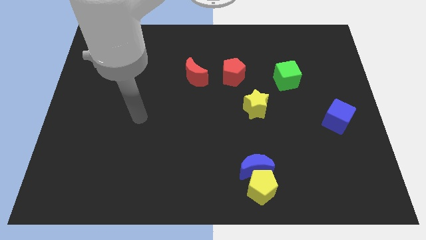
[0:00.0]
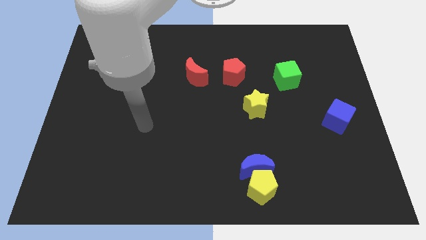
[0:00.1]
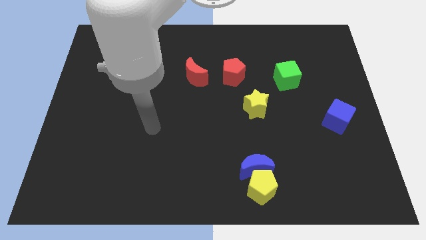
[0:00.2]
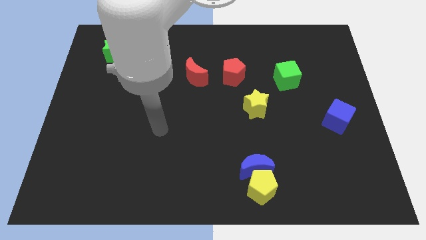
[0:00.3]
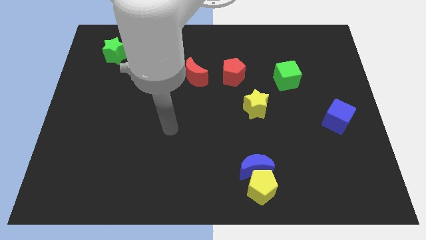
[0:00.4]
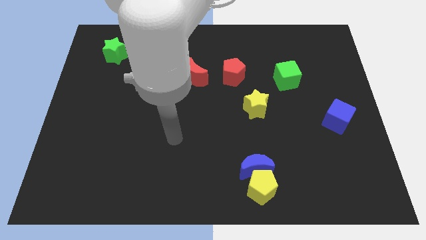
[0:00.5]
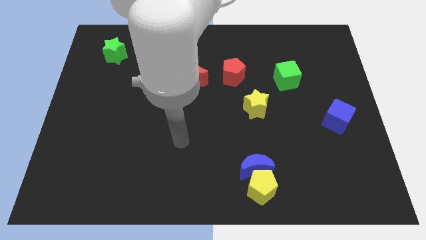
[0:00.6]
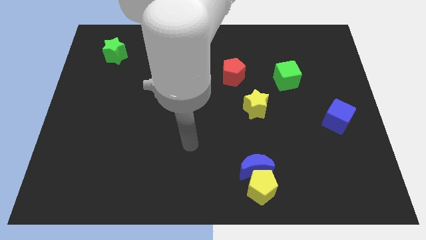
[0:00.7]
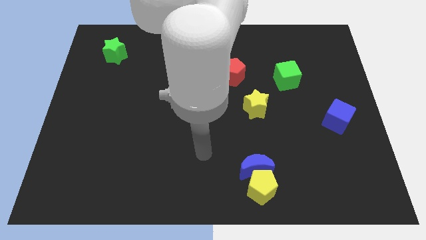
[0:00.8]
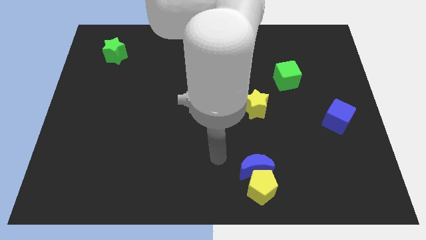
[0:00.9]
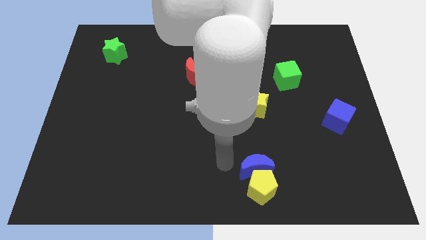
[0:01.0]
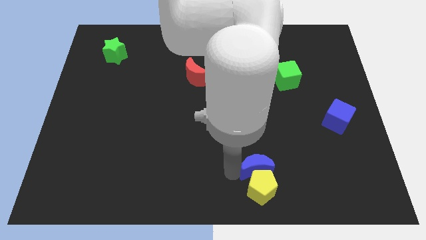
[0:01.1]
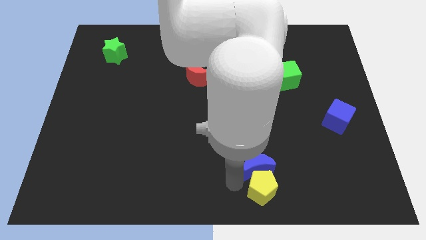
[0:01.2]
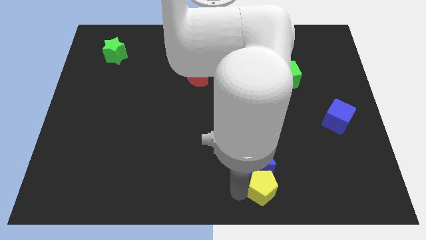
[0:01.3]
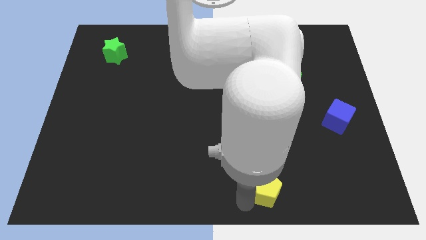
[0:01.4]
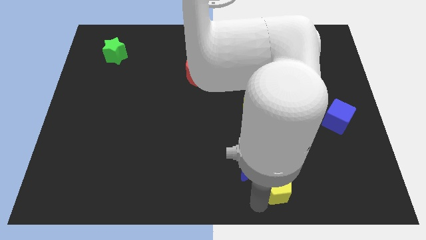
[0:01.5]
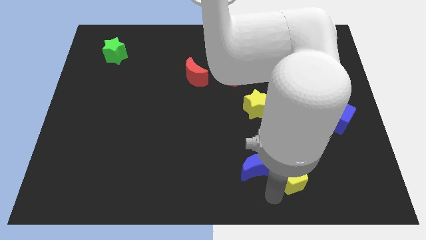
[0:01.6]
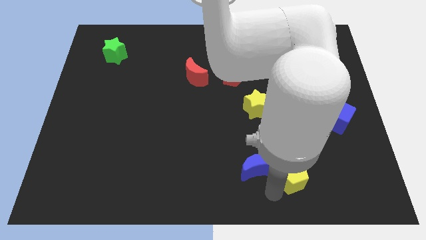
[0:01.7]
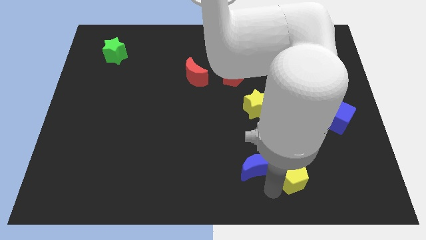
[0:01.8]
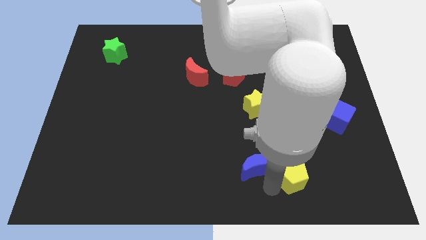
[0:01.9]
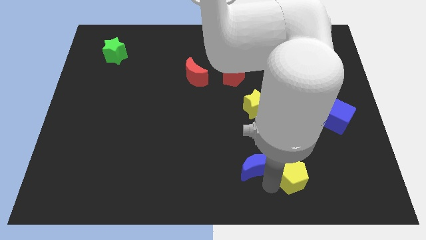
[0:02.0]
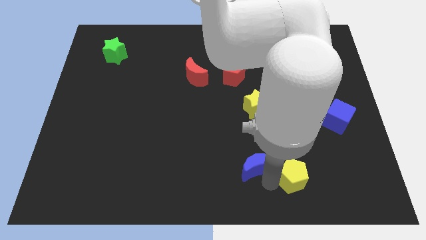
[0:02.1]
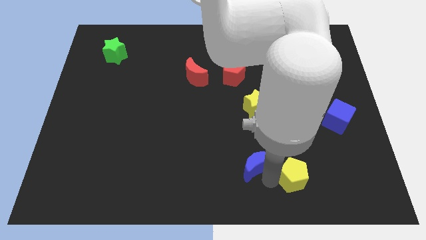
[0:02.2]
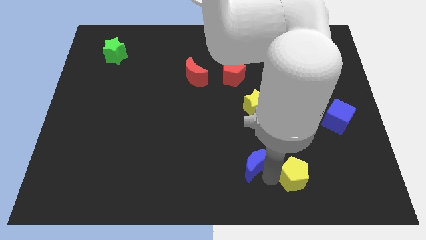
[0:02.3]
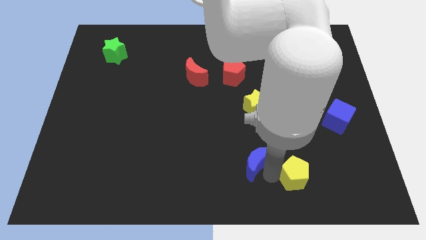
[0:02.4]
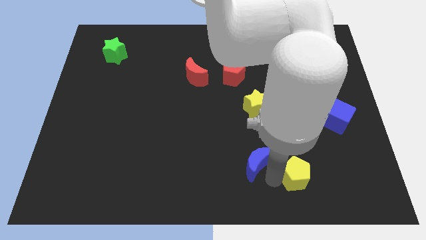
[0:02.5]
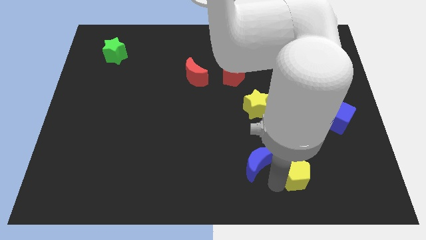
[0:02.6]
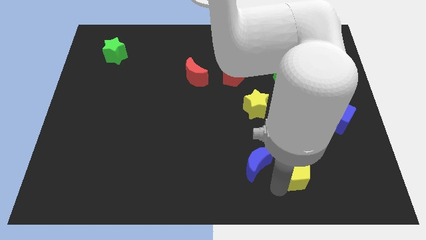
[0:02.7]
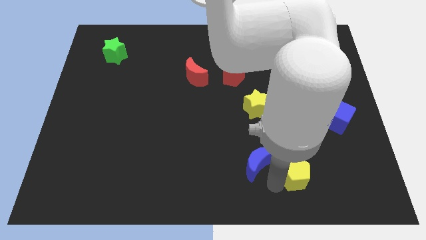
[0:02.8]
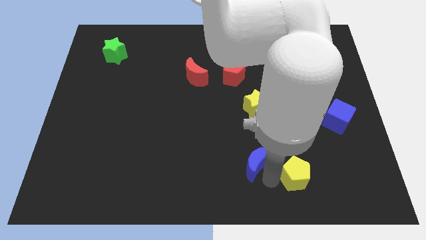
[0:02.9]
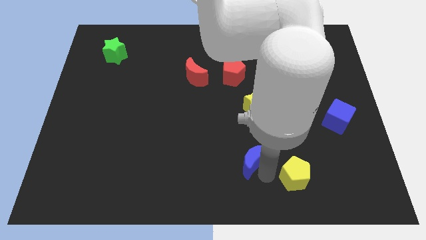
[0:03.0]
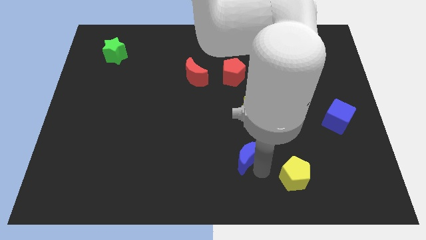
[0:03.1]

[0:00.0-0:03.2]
pull the blue moon apart from the yellow pentagon

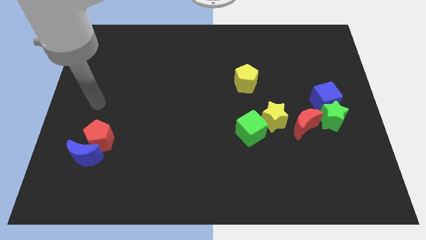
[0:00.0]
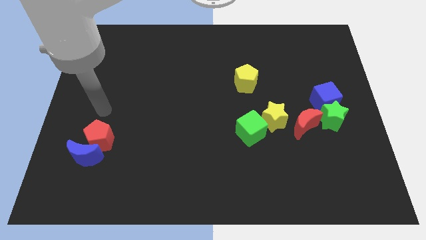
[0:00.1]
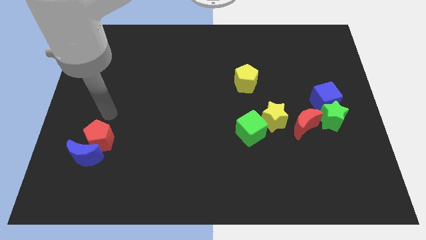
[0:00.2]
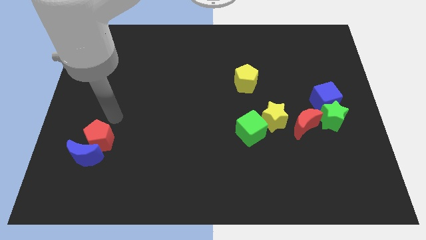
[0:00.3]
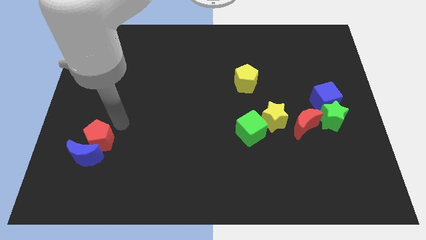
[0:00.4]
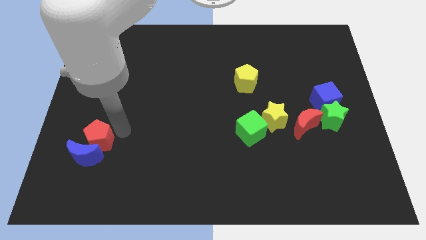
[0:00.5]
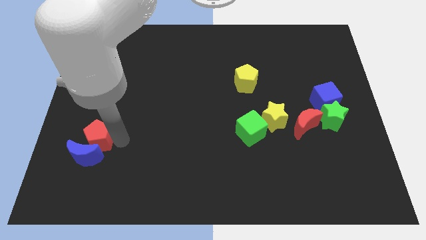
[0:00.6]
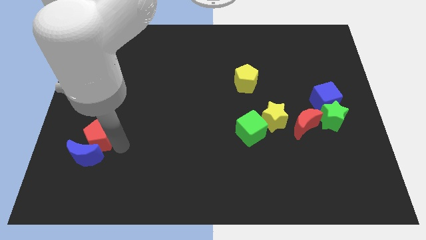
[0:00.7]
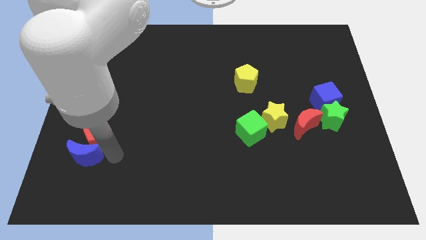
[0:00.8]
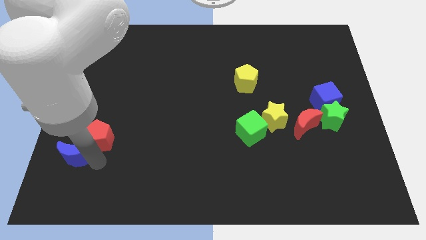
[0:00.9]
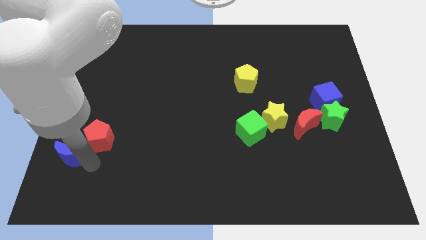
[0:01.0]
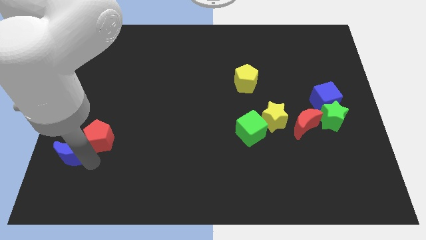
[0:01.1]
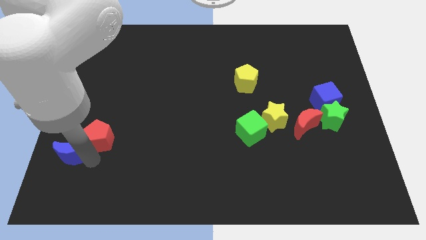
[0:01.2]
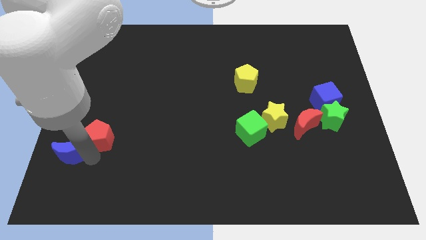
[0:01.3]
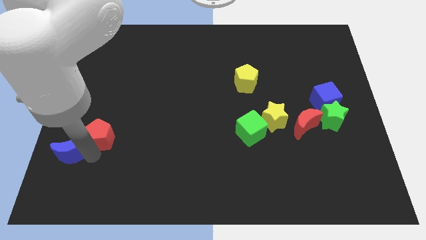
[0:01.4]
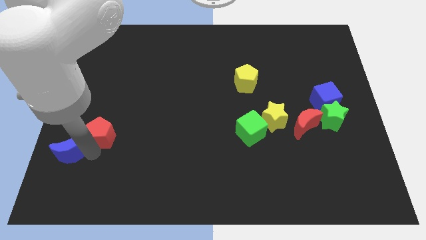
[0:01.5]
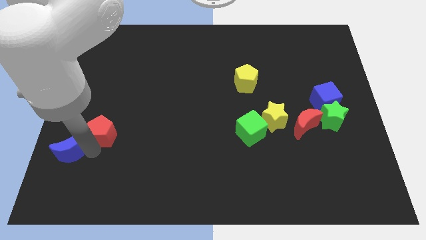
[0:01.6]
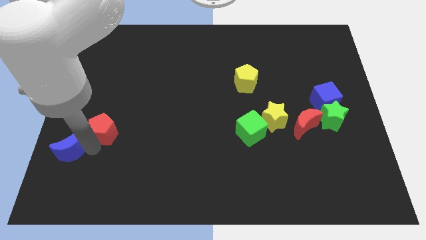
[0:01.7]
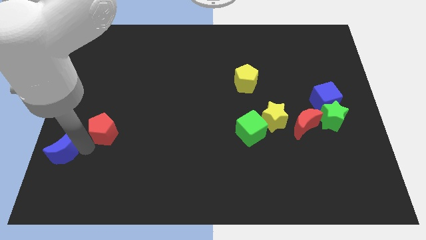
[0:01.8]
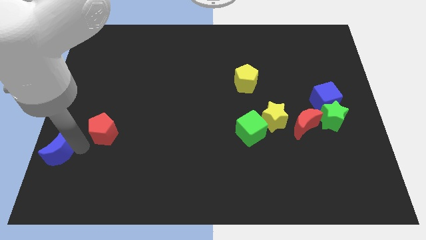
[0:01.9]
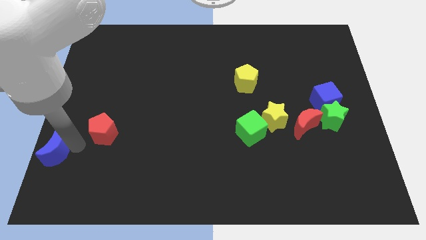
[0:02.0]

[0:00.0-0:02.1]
separate the red pentagon from the blue moon

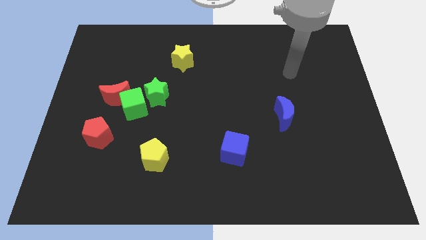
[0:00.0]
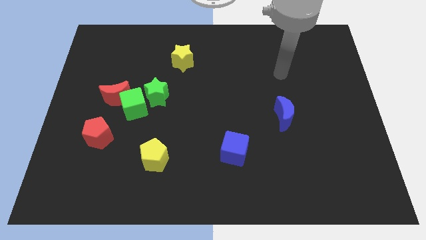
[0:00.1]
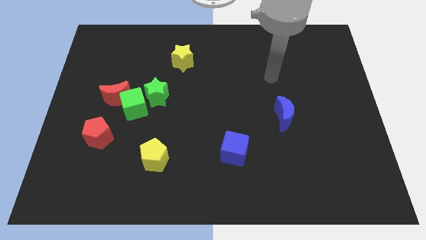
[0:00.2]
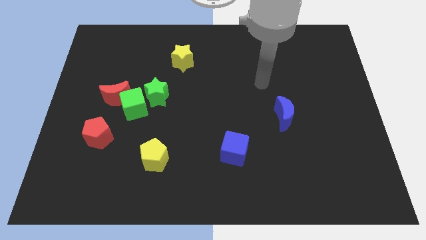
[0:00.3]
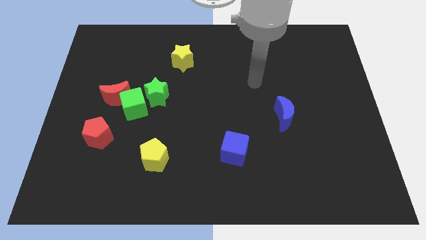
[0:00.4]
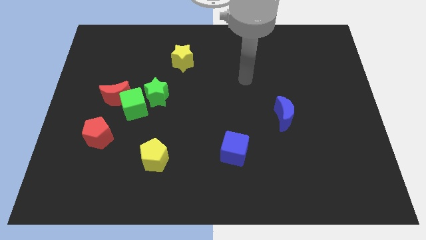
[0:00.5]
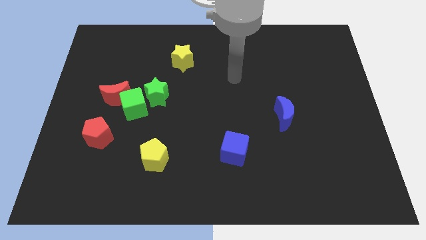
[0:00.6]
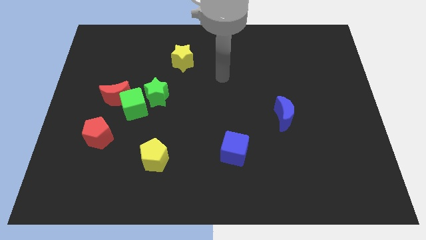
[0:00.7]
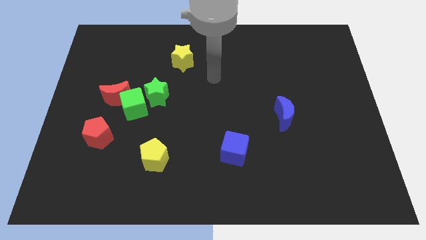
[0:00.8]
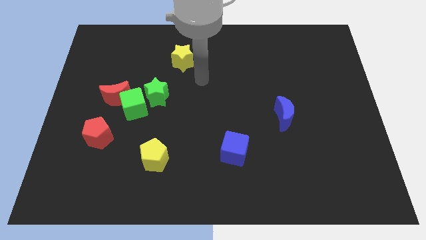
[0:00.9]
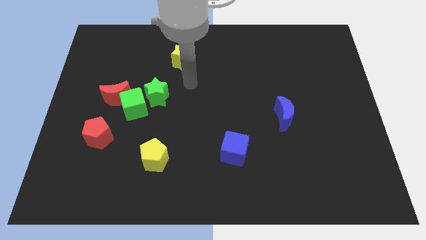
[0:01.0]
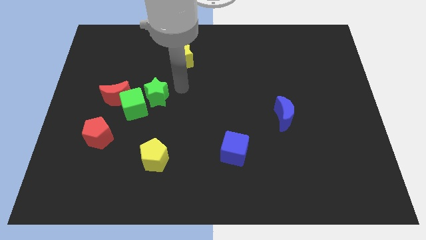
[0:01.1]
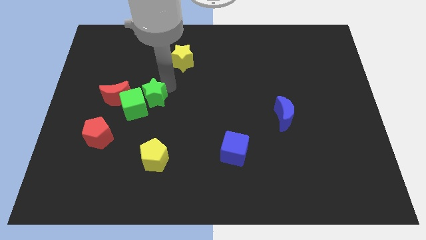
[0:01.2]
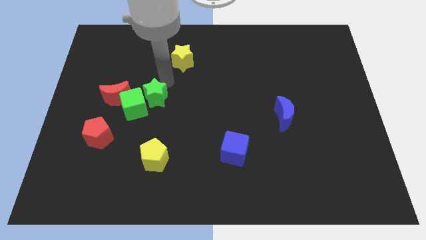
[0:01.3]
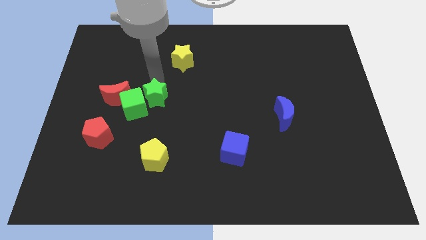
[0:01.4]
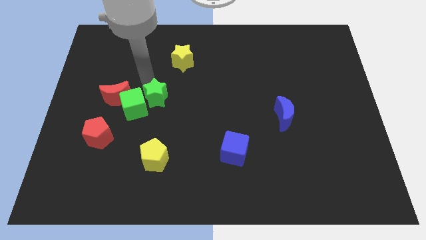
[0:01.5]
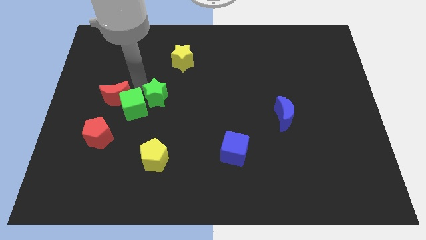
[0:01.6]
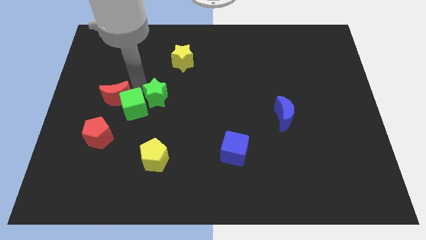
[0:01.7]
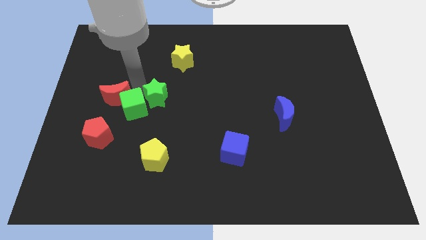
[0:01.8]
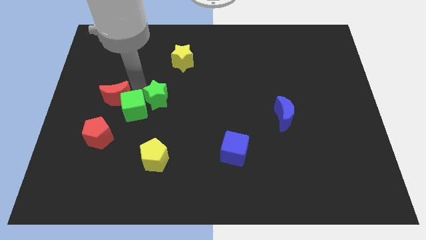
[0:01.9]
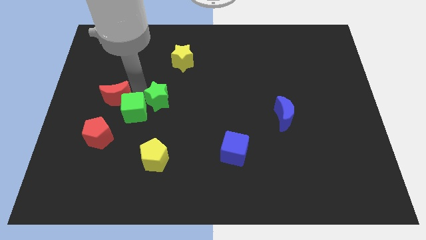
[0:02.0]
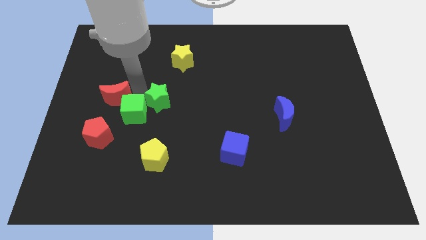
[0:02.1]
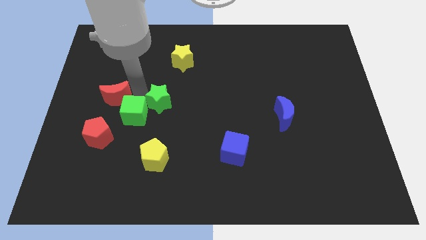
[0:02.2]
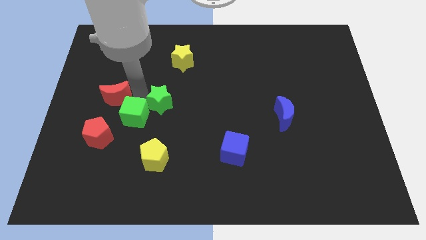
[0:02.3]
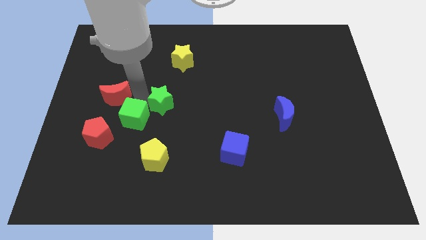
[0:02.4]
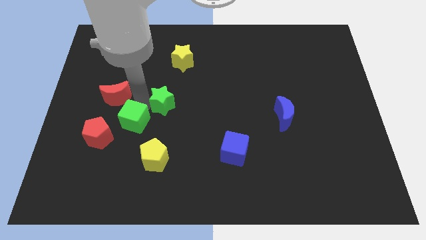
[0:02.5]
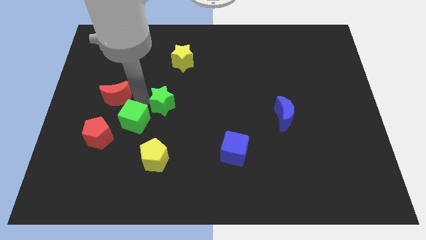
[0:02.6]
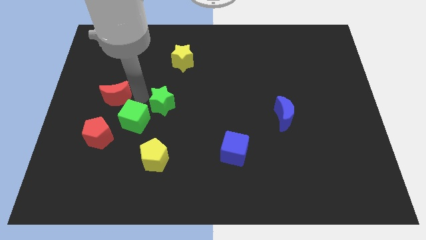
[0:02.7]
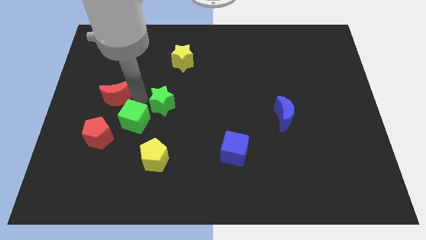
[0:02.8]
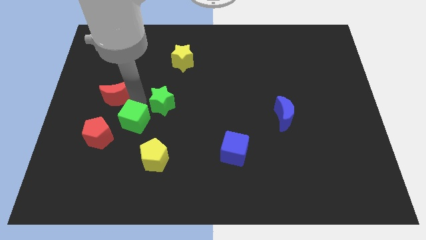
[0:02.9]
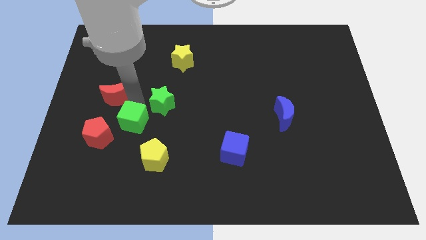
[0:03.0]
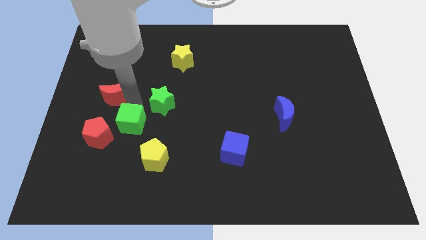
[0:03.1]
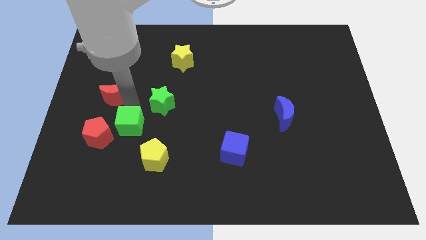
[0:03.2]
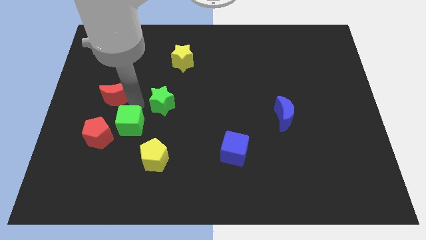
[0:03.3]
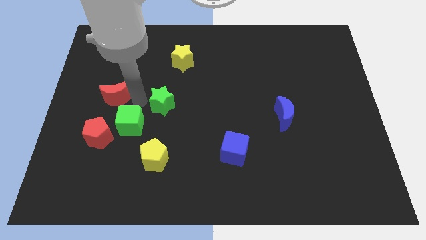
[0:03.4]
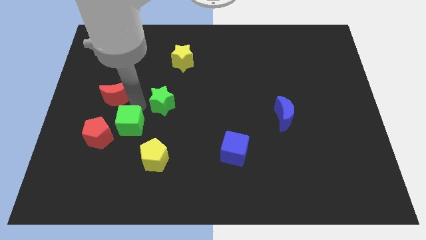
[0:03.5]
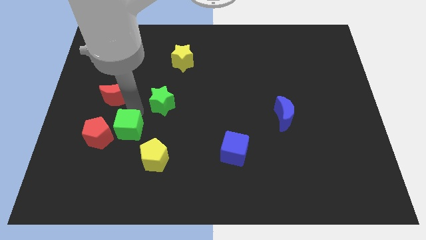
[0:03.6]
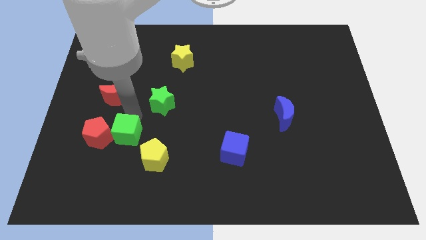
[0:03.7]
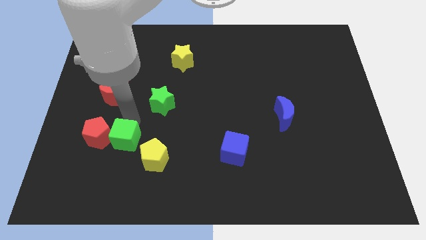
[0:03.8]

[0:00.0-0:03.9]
pull the green cube apart from the red moon and green star

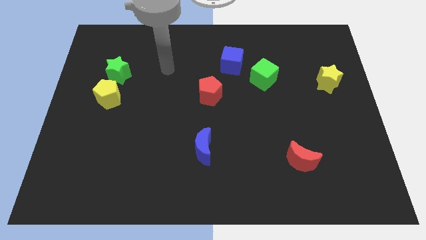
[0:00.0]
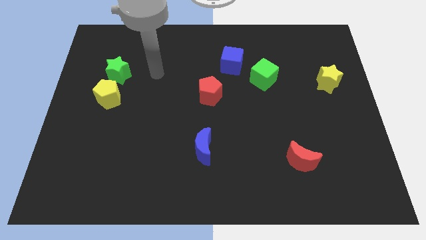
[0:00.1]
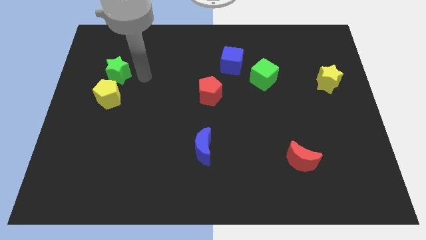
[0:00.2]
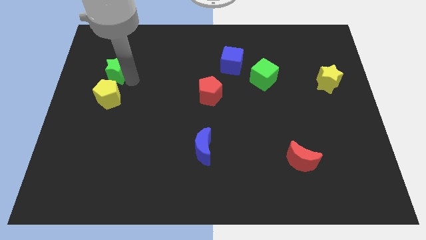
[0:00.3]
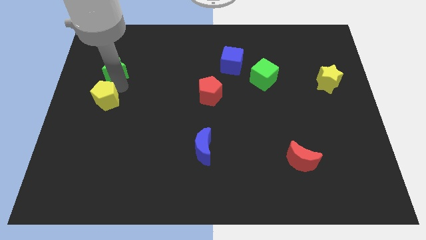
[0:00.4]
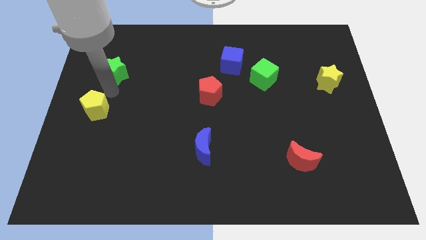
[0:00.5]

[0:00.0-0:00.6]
pull the green star apart from the yellow pentagon
